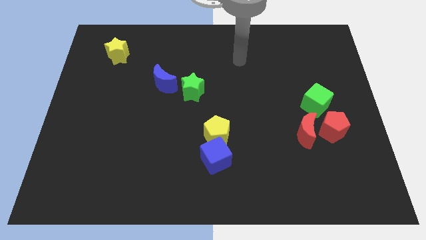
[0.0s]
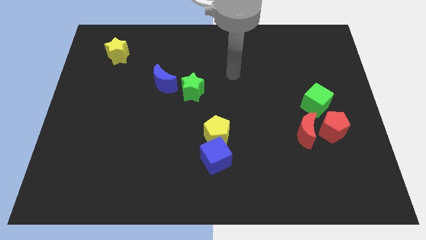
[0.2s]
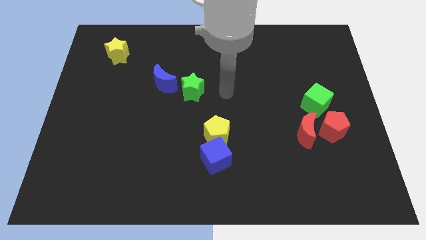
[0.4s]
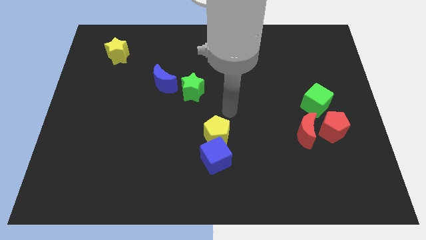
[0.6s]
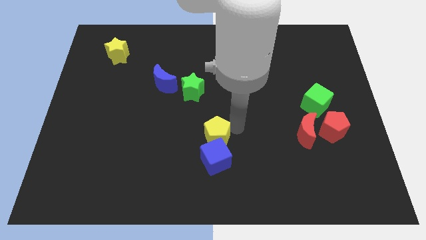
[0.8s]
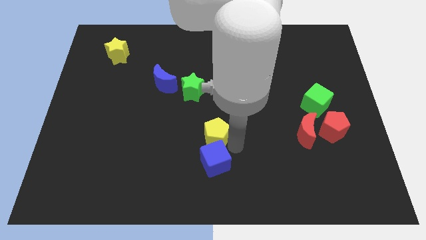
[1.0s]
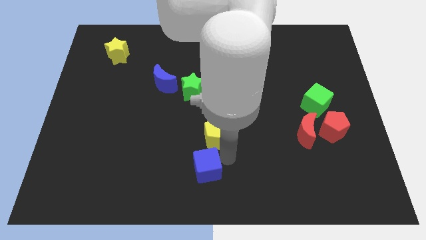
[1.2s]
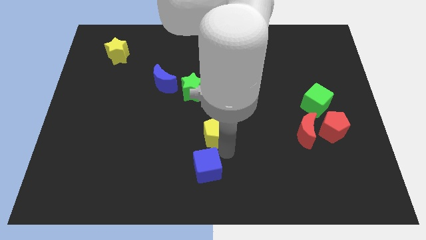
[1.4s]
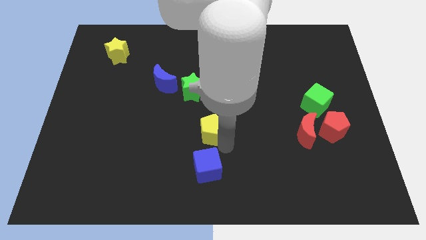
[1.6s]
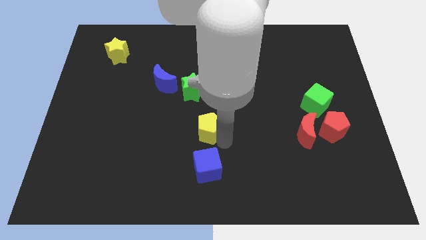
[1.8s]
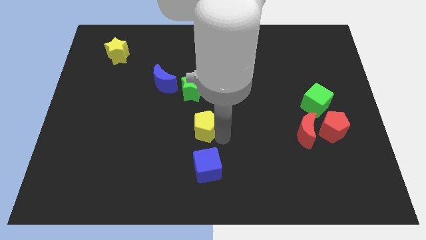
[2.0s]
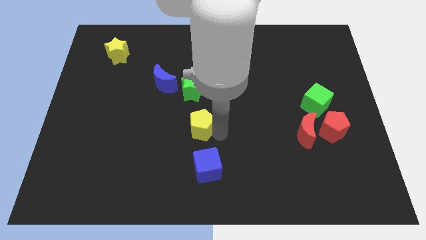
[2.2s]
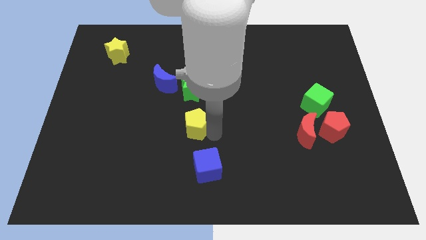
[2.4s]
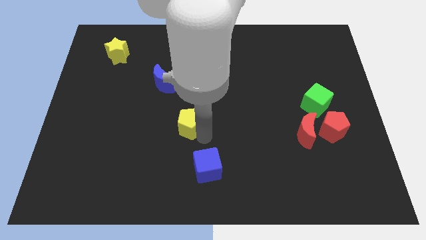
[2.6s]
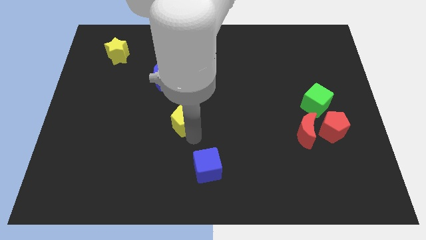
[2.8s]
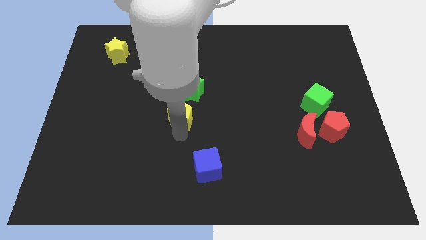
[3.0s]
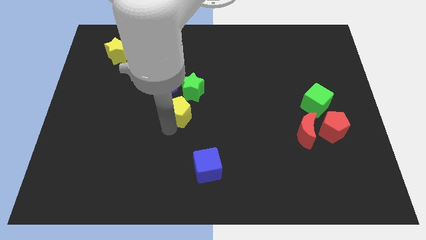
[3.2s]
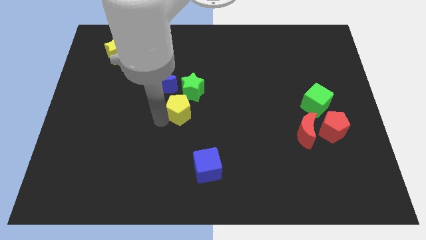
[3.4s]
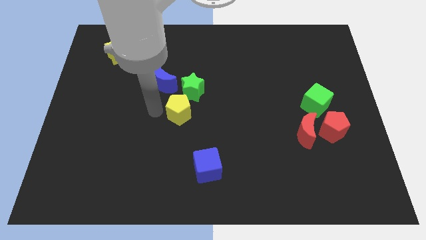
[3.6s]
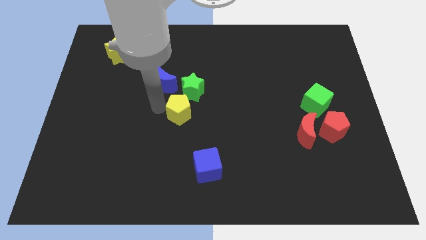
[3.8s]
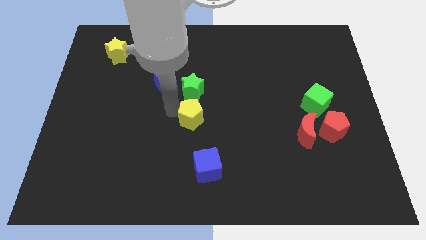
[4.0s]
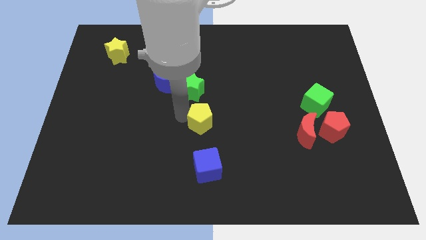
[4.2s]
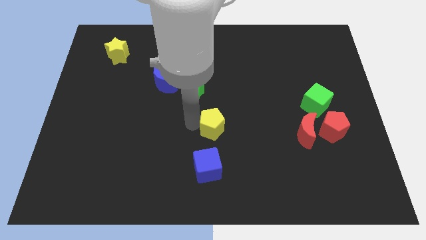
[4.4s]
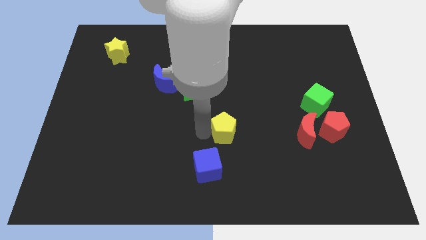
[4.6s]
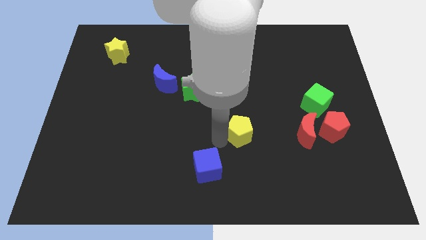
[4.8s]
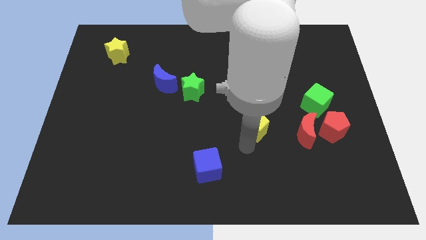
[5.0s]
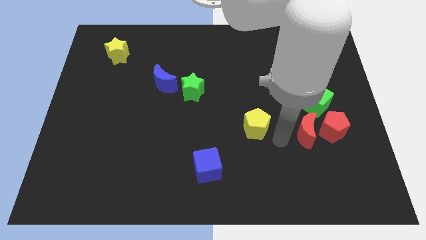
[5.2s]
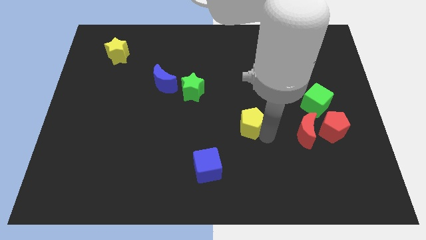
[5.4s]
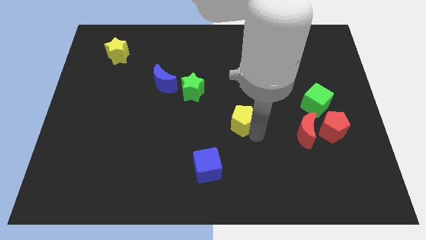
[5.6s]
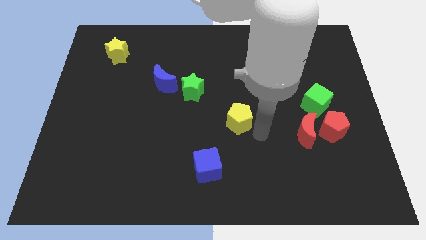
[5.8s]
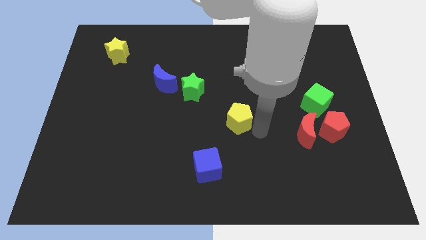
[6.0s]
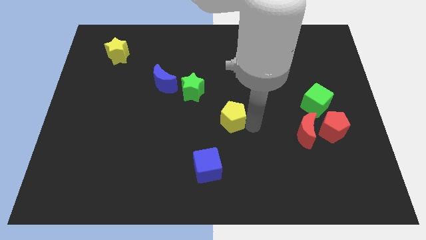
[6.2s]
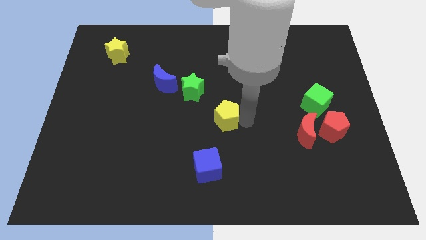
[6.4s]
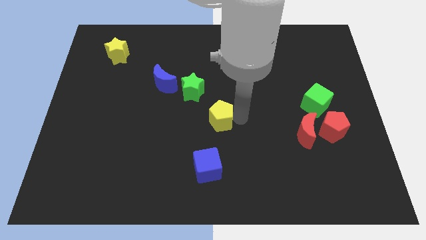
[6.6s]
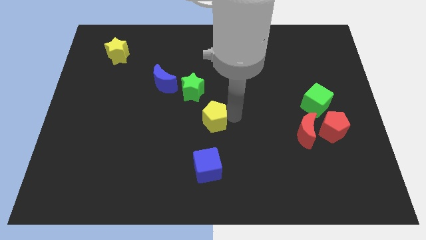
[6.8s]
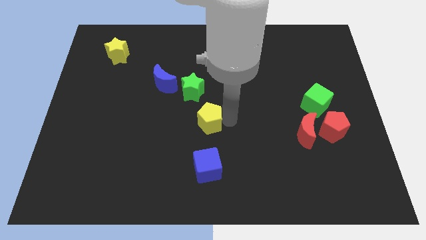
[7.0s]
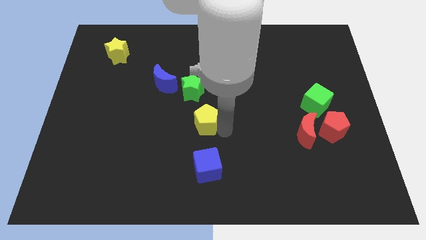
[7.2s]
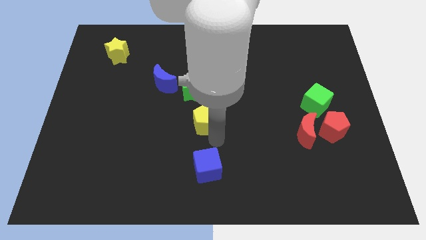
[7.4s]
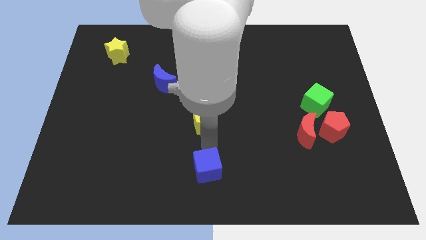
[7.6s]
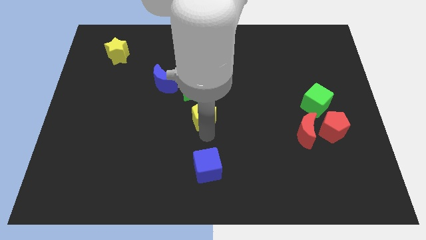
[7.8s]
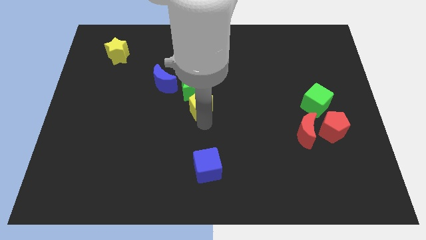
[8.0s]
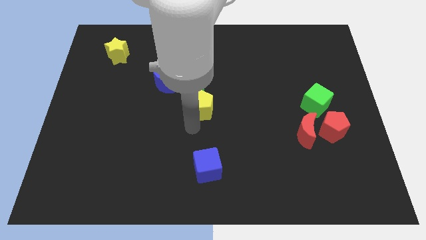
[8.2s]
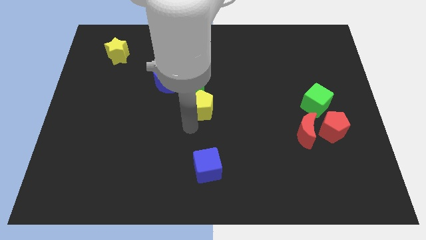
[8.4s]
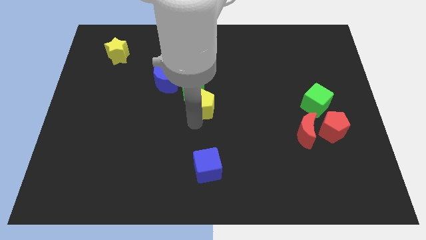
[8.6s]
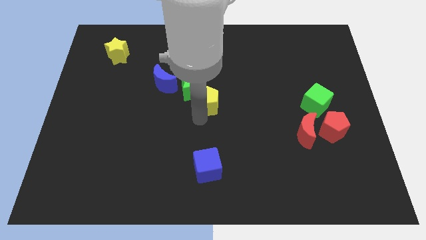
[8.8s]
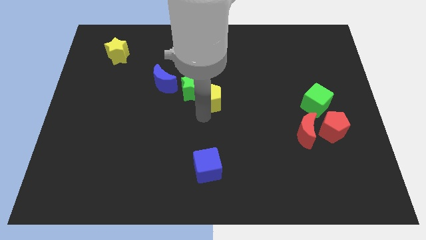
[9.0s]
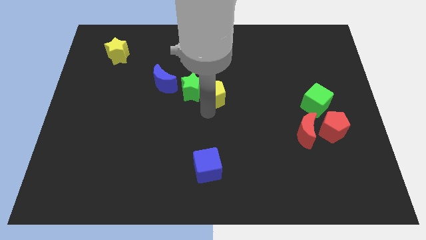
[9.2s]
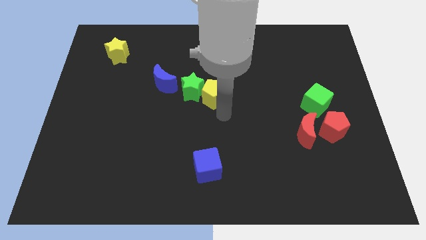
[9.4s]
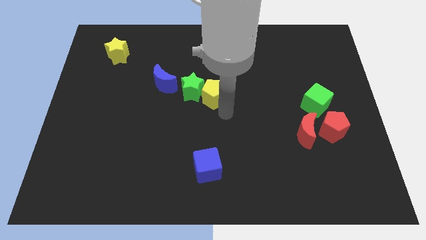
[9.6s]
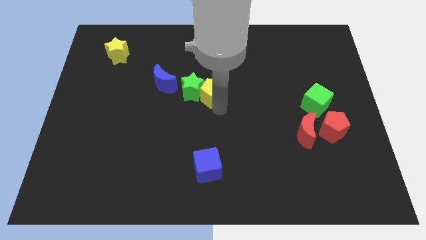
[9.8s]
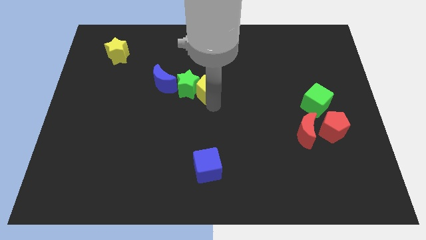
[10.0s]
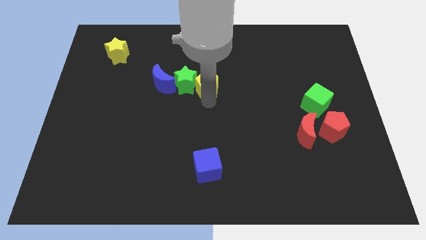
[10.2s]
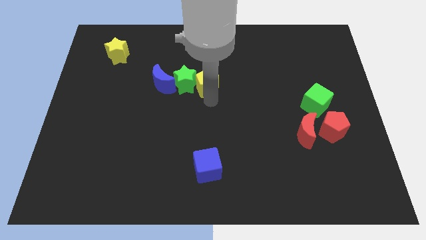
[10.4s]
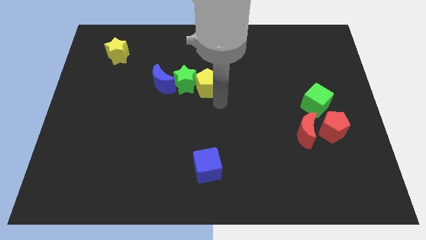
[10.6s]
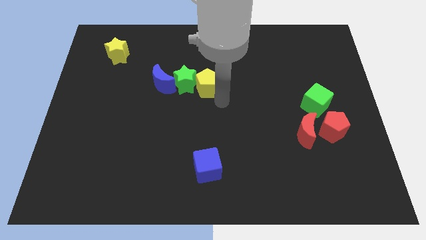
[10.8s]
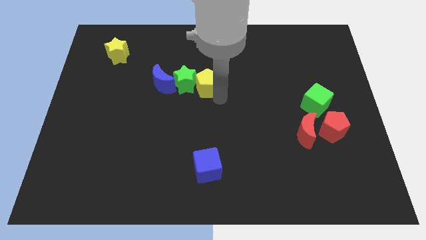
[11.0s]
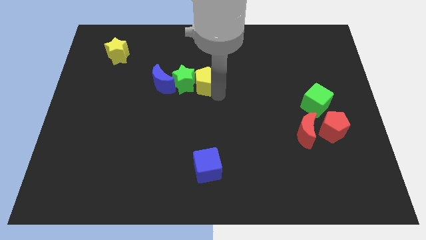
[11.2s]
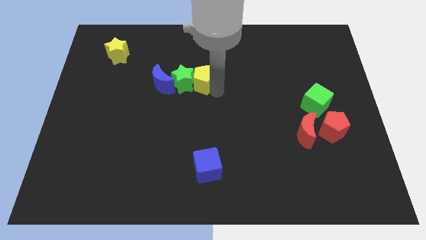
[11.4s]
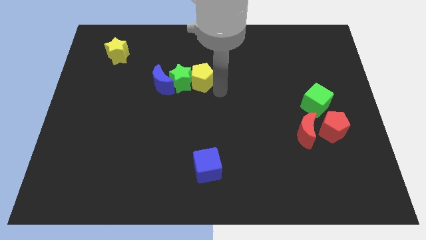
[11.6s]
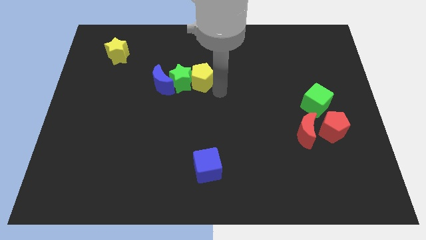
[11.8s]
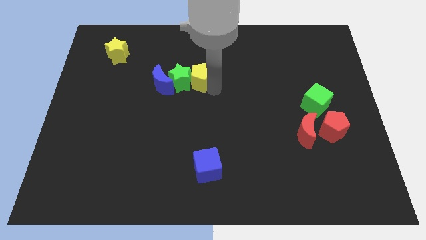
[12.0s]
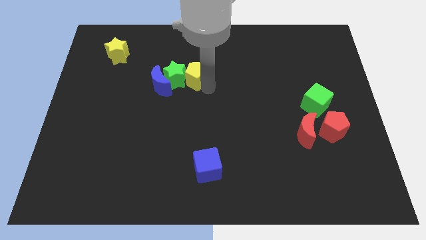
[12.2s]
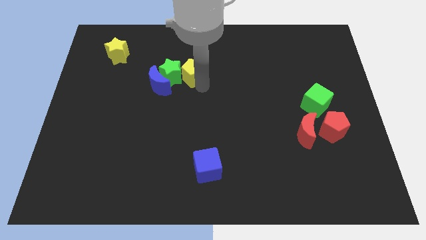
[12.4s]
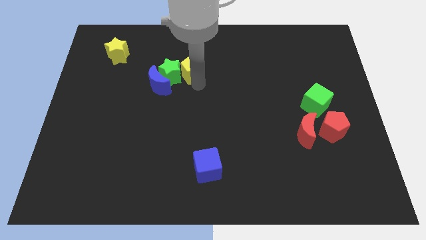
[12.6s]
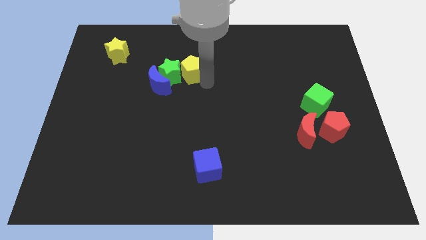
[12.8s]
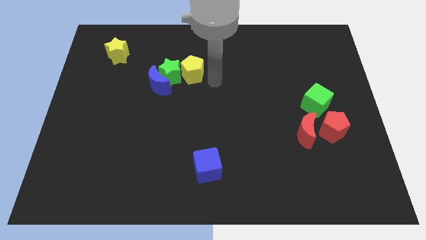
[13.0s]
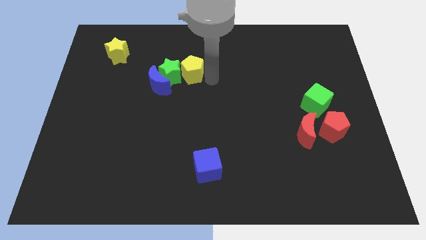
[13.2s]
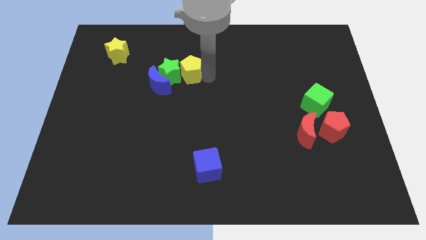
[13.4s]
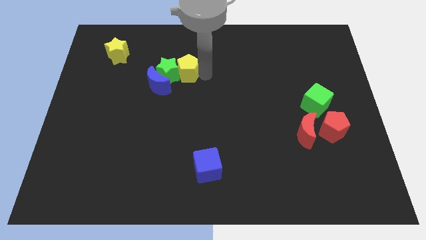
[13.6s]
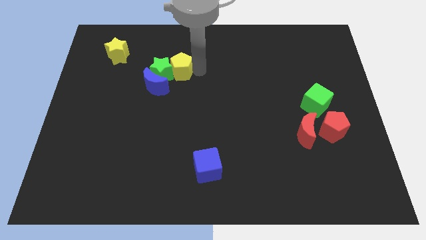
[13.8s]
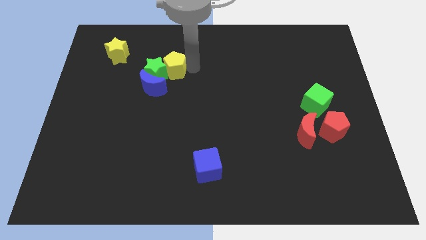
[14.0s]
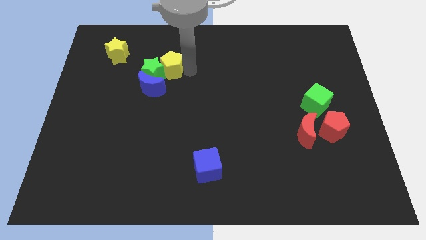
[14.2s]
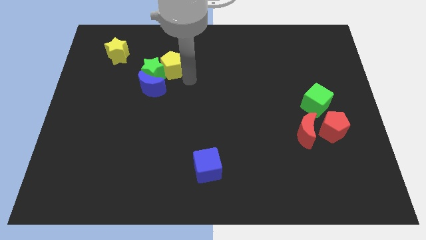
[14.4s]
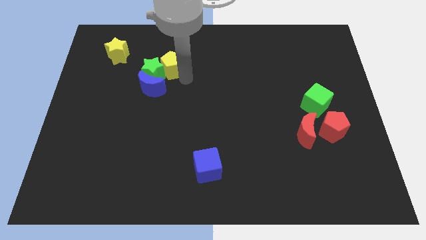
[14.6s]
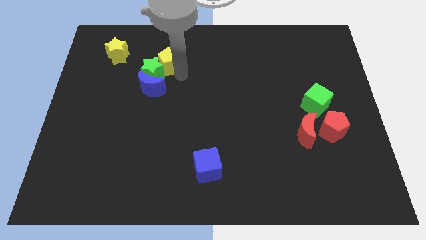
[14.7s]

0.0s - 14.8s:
put the yellow pentagon to the right of the yellow star

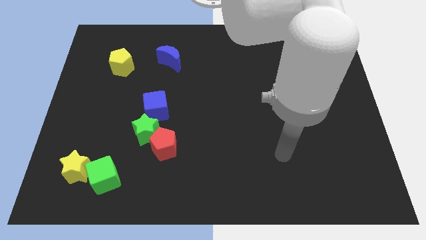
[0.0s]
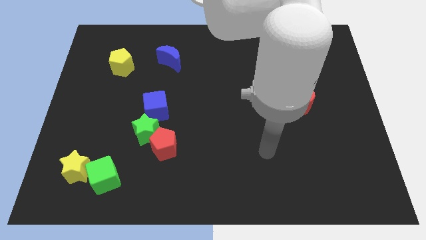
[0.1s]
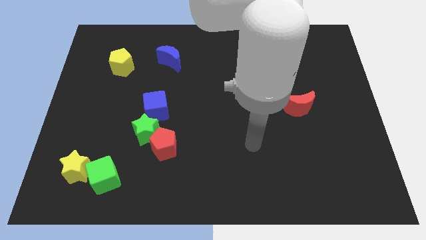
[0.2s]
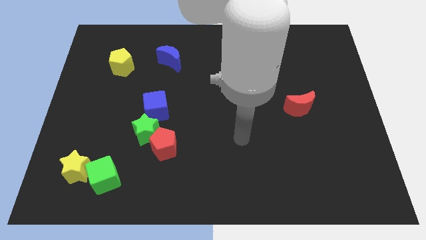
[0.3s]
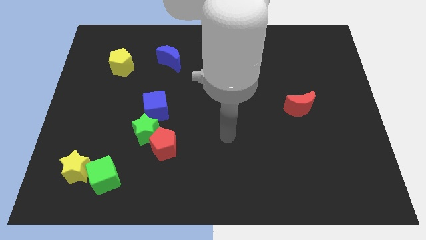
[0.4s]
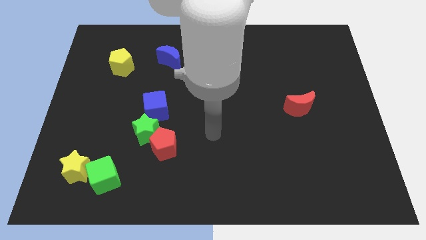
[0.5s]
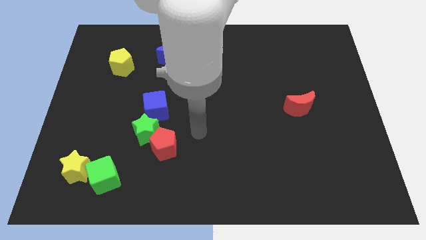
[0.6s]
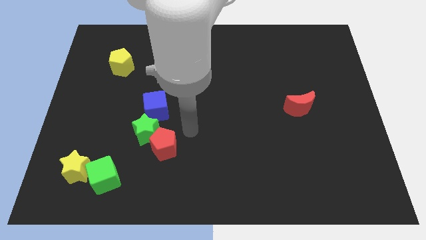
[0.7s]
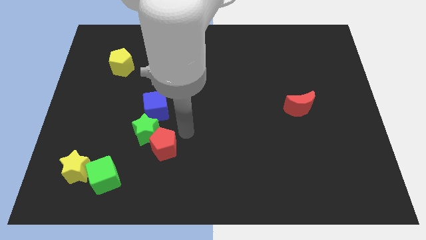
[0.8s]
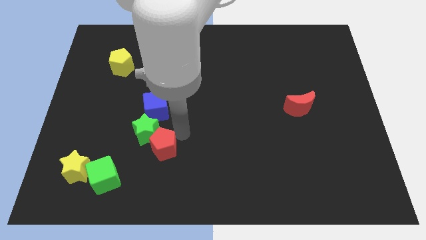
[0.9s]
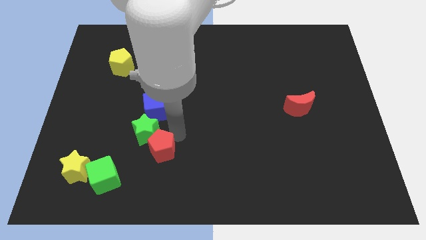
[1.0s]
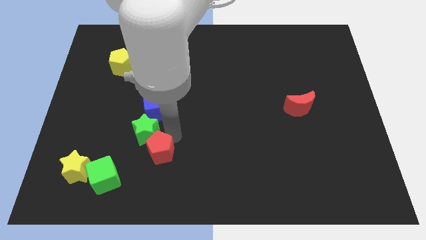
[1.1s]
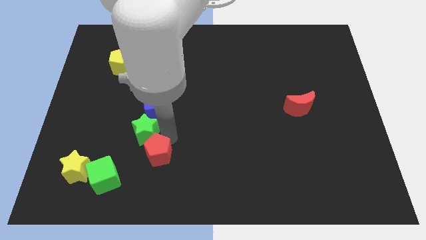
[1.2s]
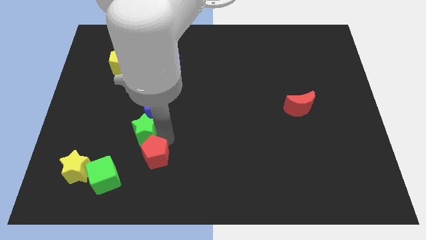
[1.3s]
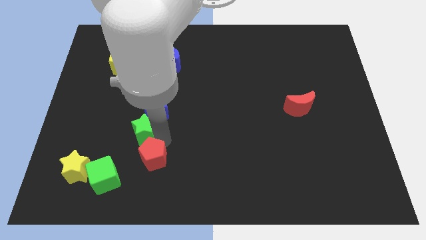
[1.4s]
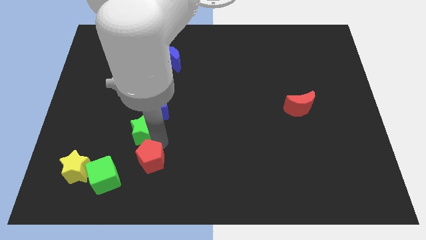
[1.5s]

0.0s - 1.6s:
push the red pentagon right of the yellow star
